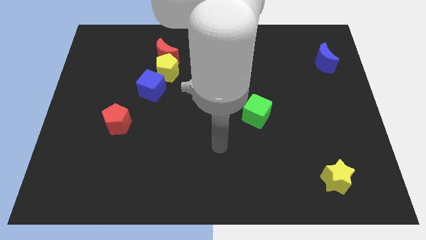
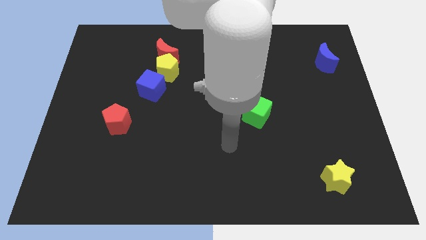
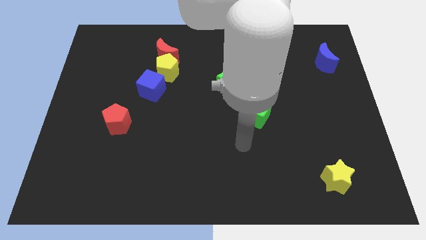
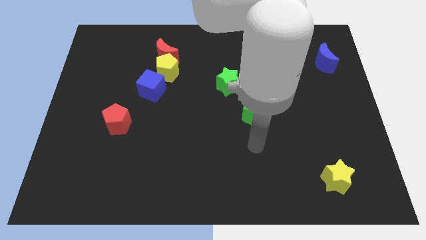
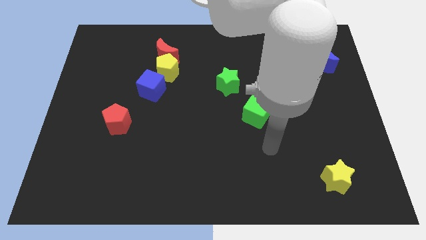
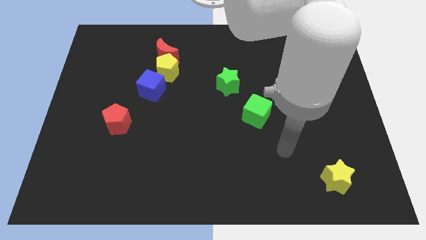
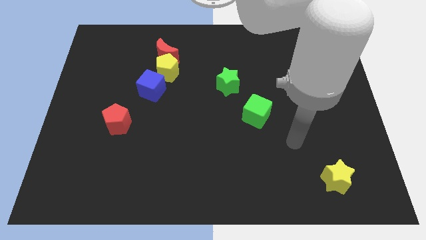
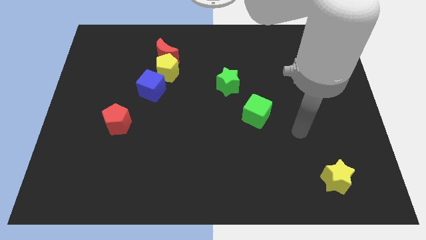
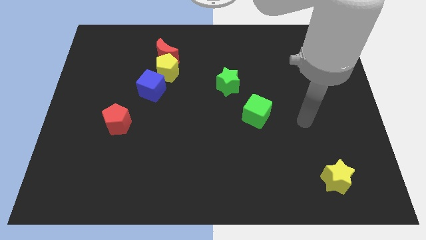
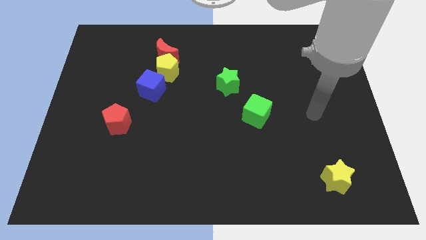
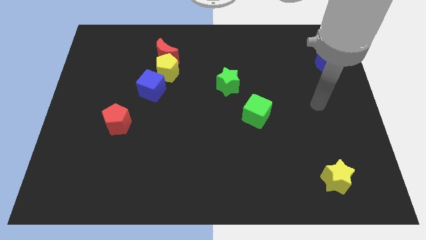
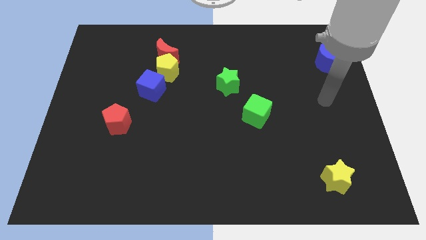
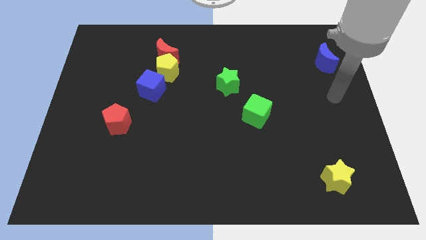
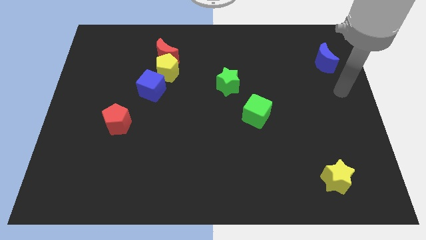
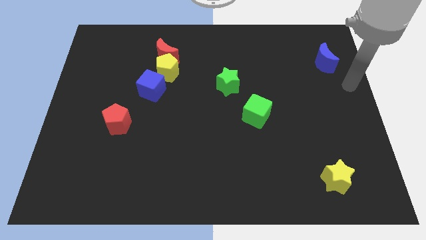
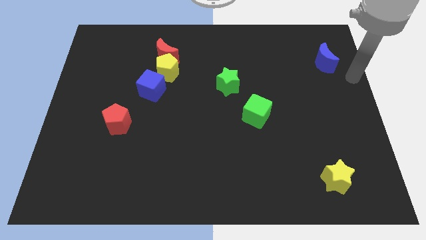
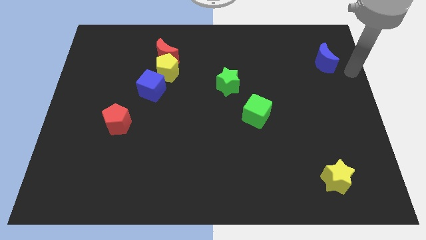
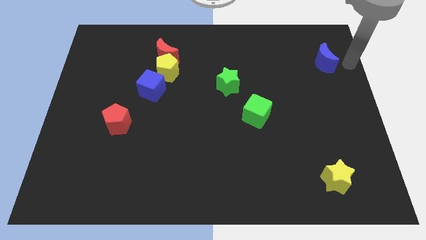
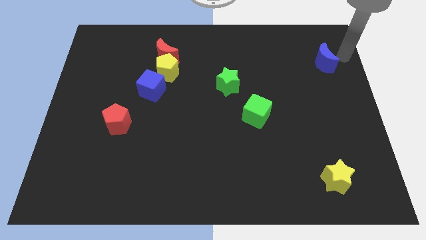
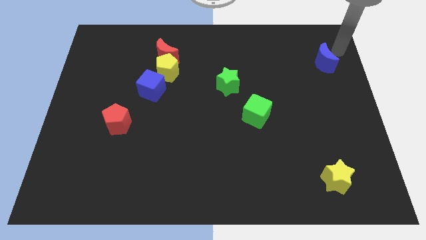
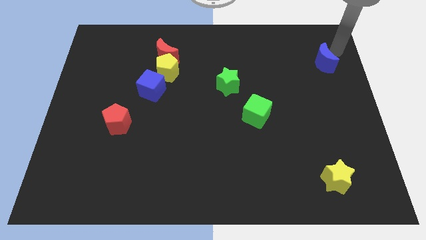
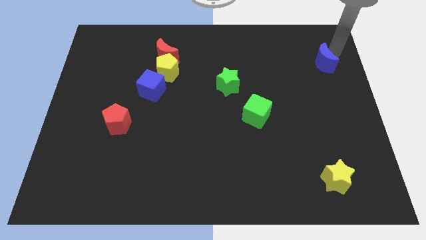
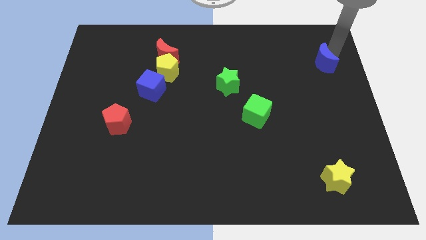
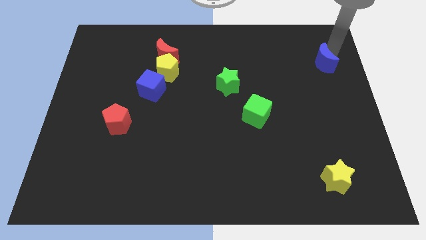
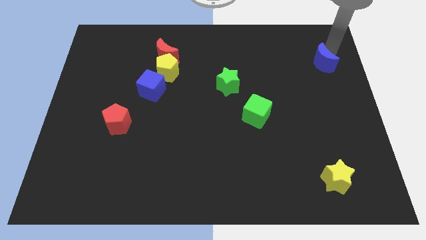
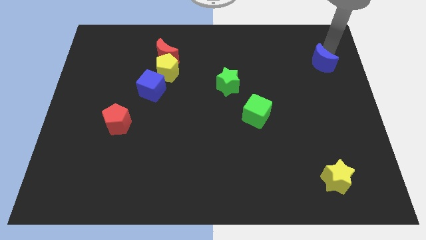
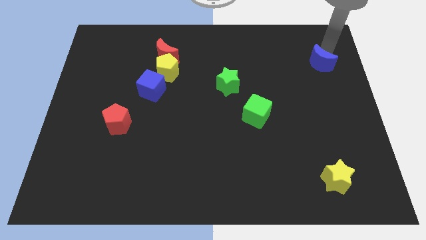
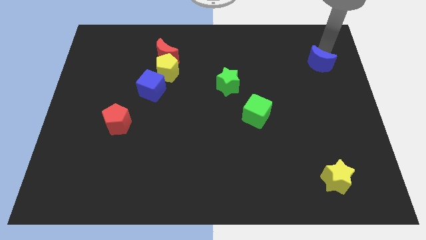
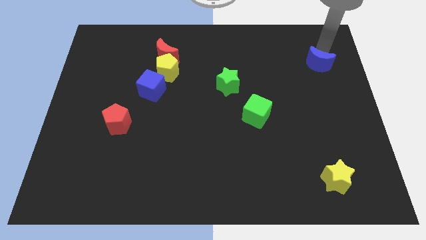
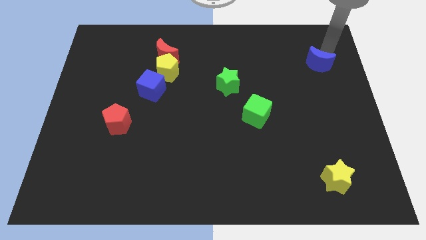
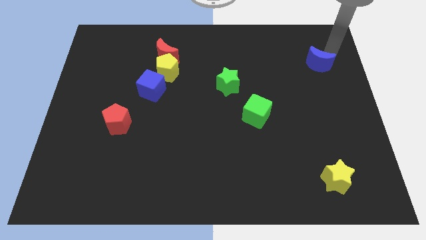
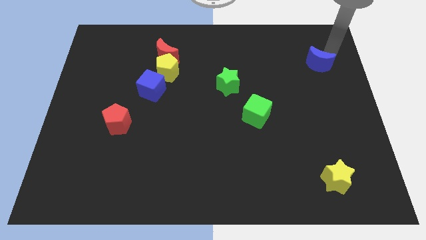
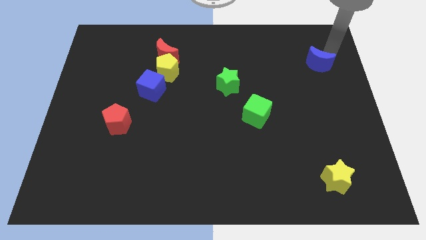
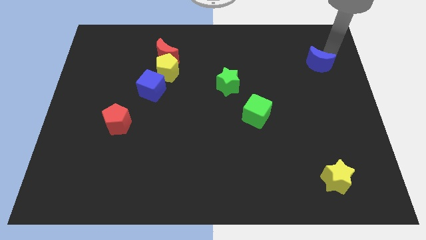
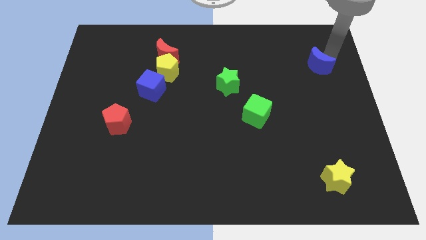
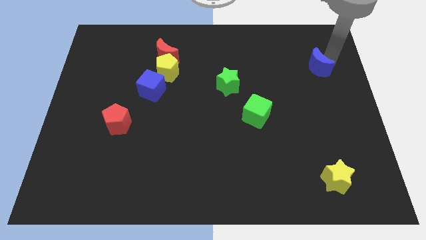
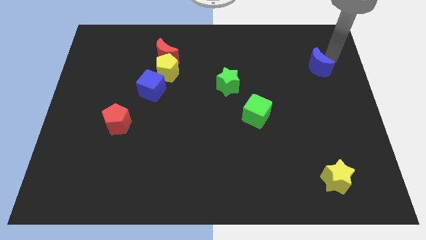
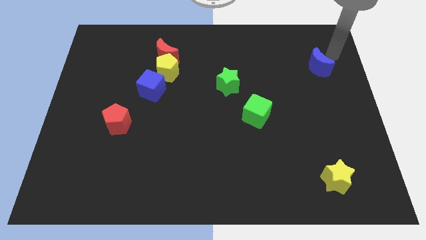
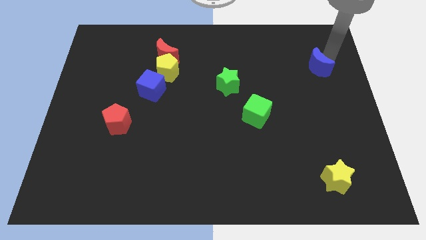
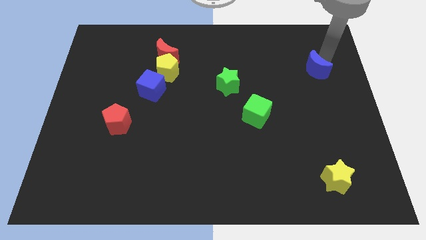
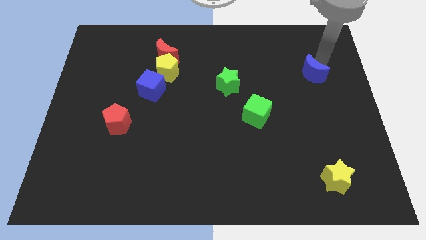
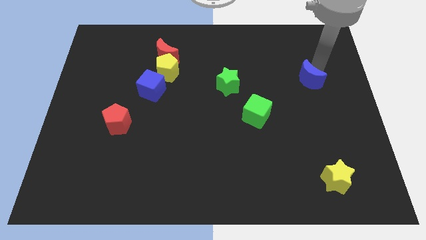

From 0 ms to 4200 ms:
slightly move the blue moon downwards and to the left

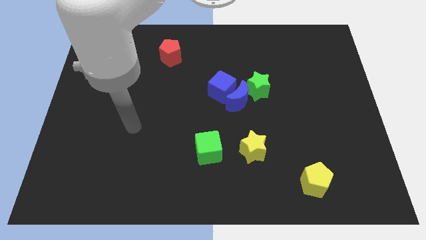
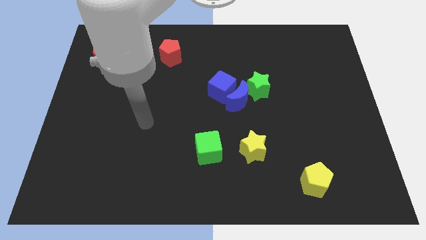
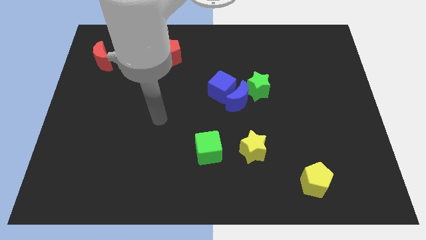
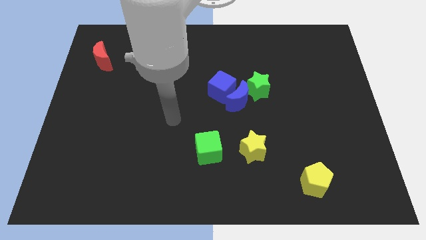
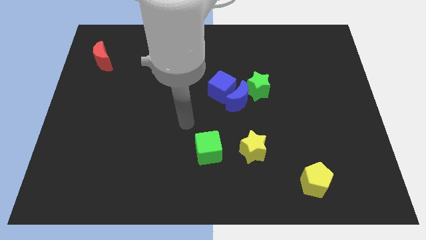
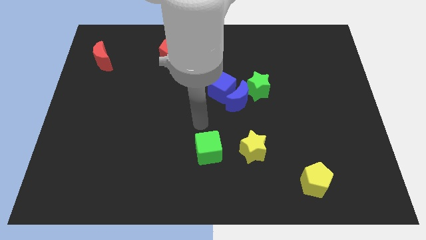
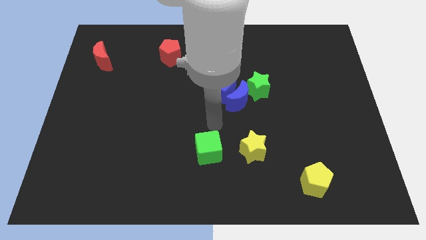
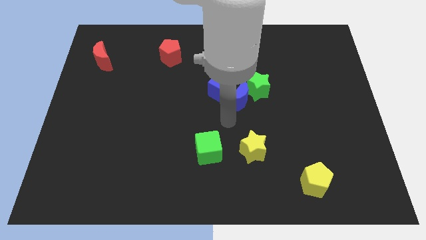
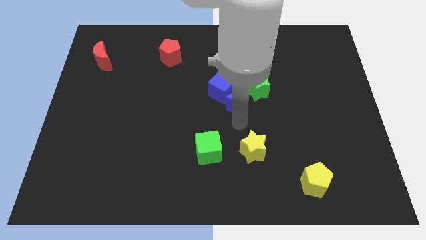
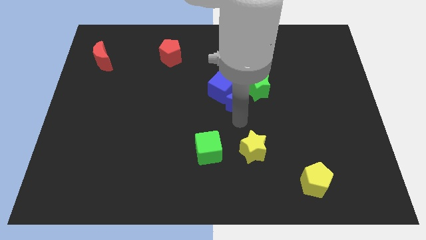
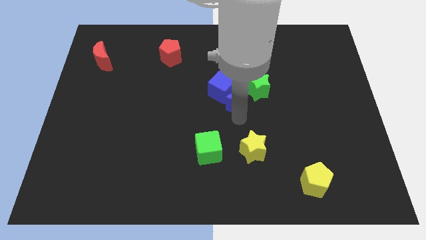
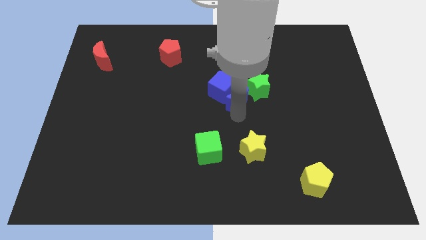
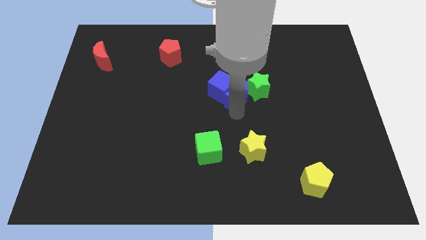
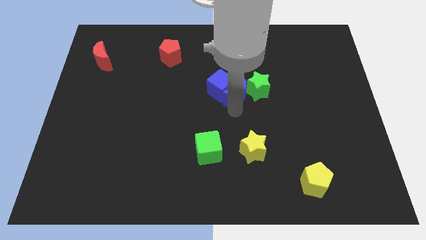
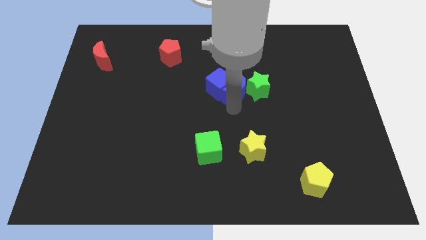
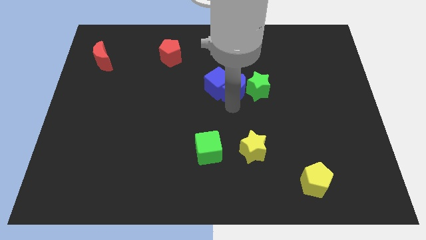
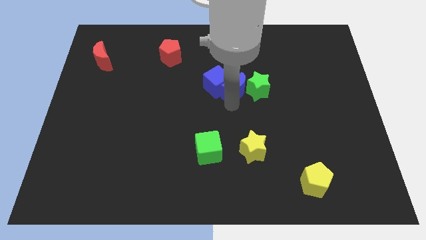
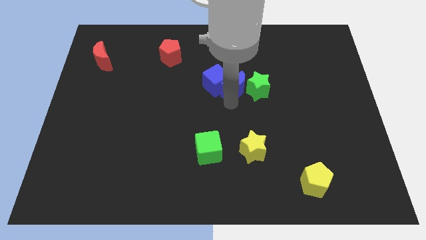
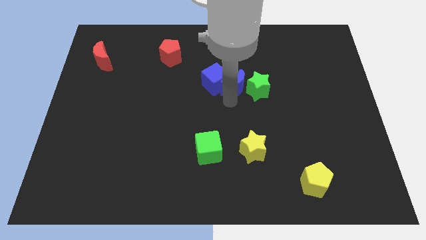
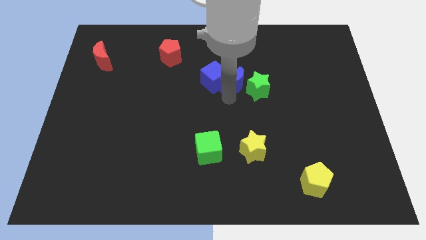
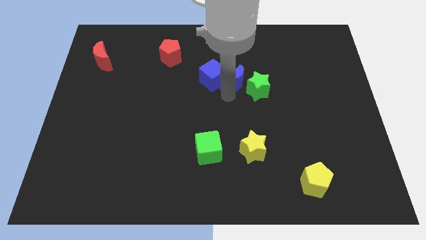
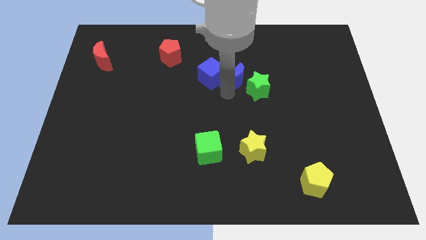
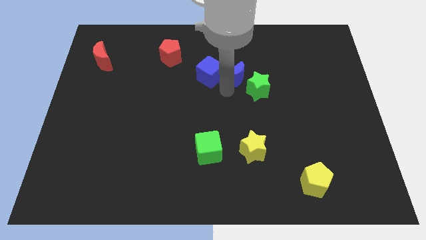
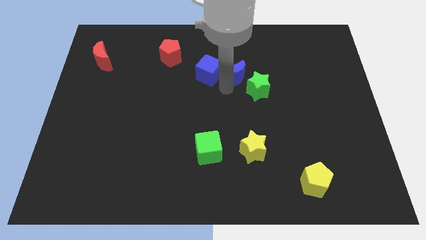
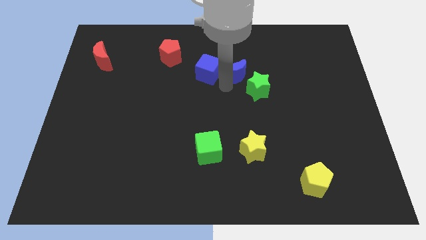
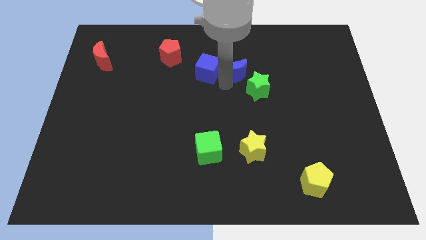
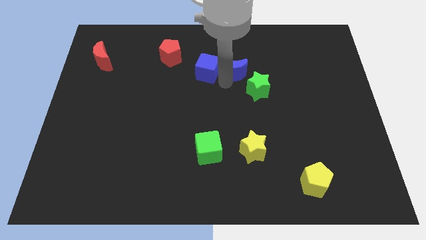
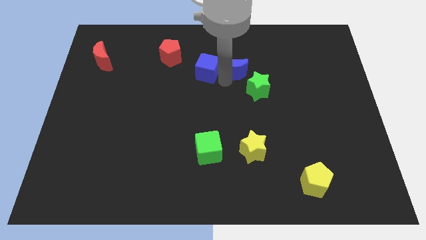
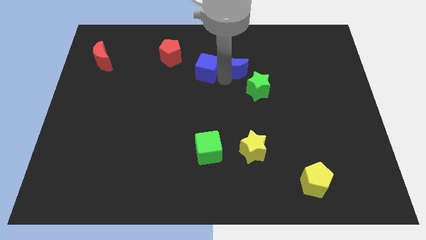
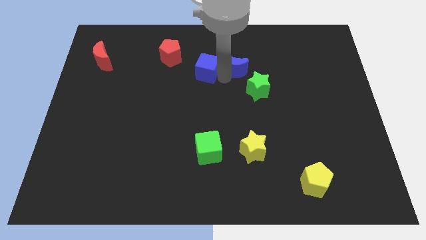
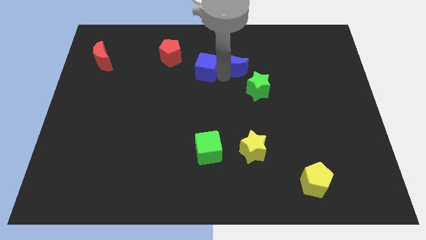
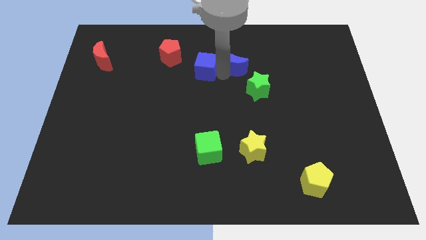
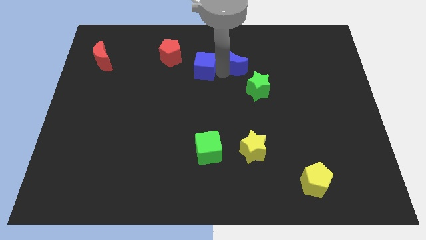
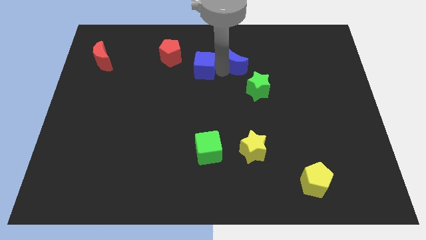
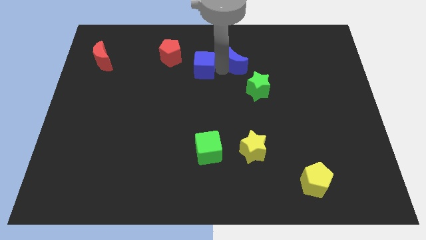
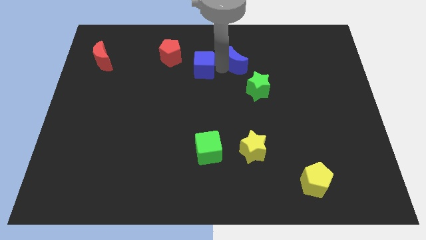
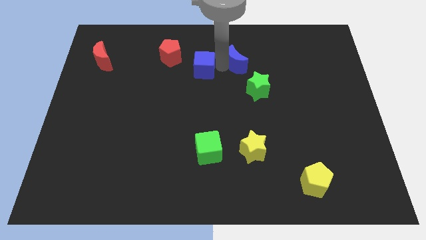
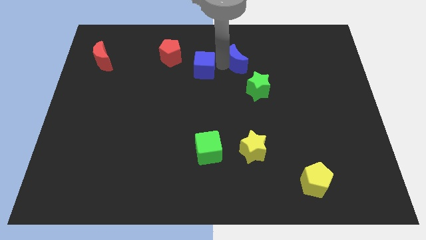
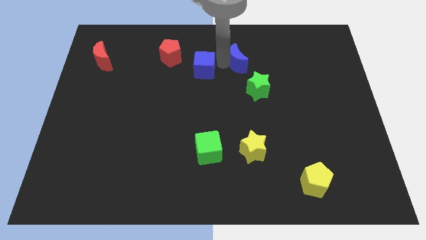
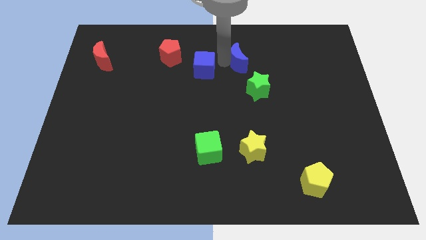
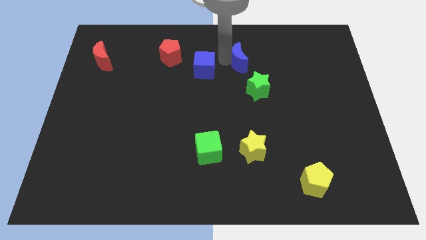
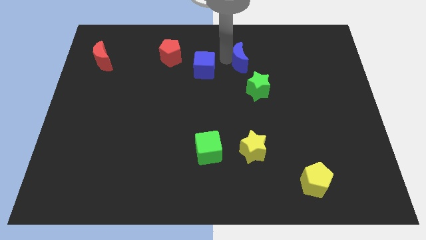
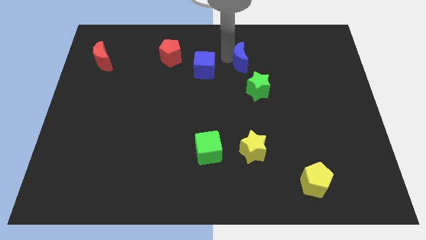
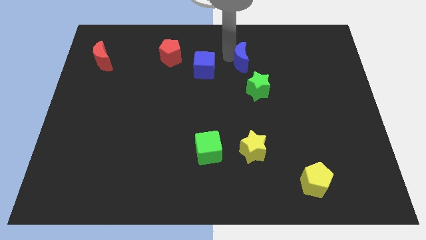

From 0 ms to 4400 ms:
push the blue moon up and right diagonally a little
